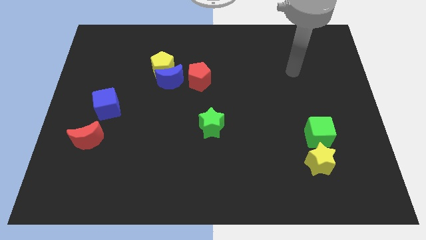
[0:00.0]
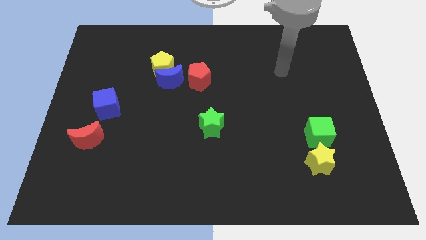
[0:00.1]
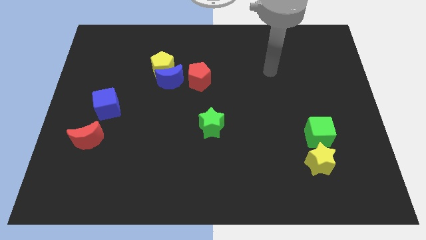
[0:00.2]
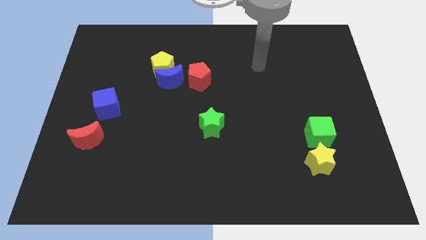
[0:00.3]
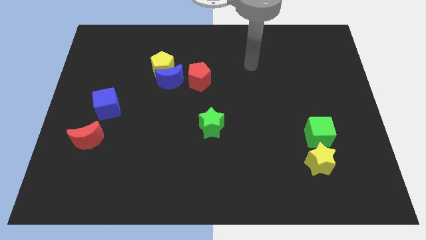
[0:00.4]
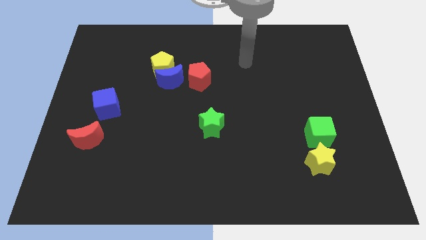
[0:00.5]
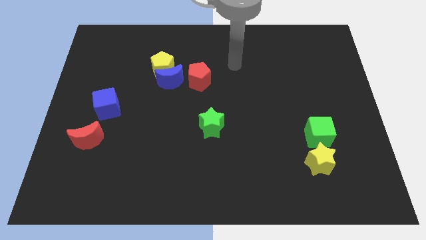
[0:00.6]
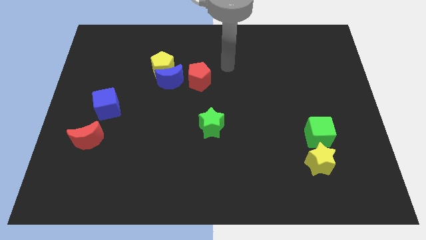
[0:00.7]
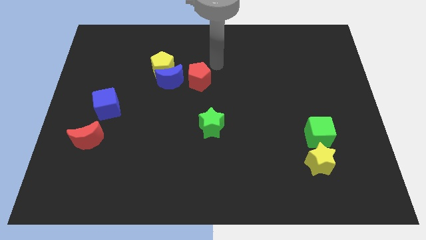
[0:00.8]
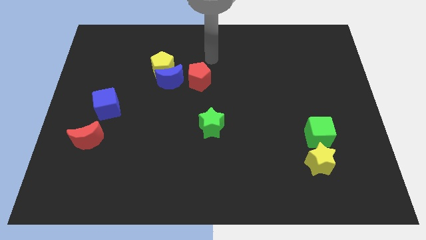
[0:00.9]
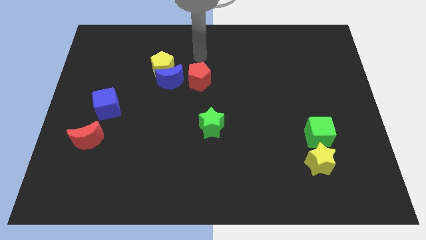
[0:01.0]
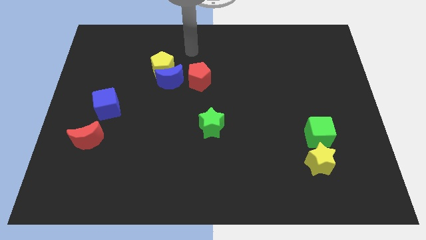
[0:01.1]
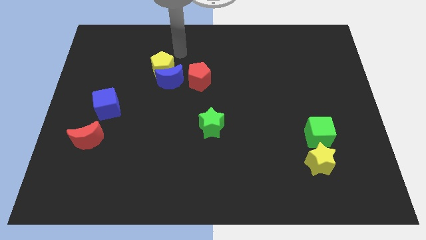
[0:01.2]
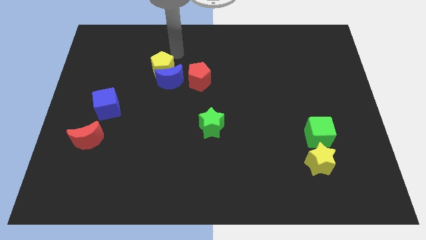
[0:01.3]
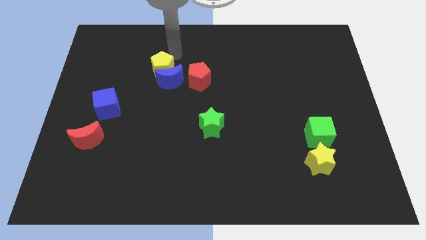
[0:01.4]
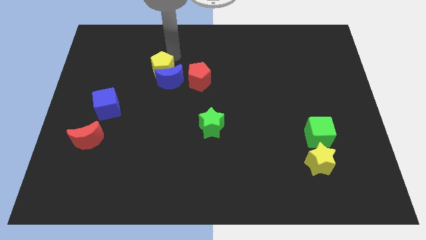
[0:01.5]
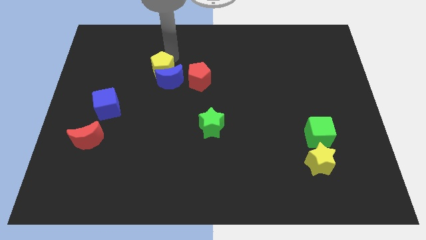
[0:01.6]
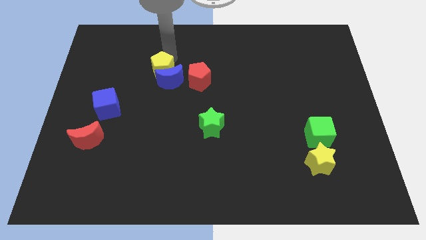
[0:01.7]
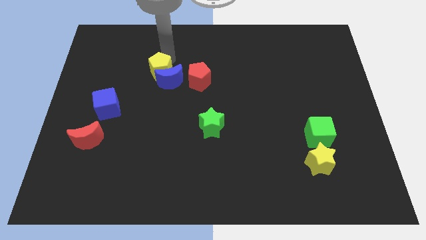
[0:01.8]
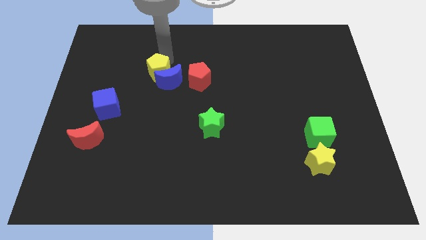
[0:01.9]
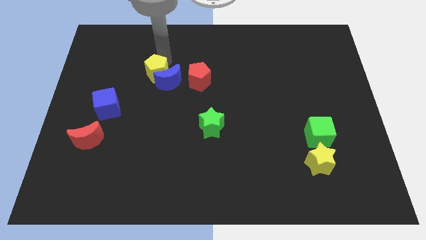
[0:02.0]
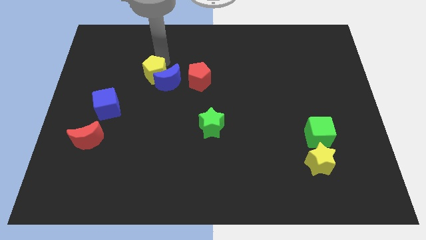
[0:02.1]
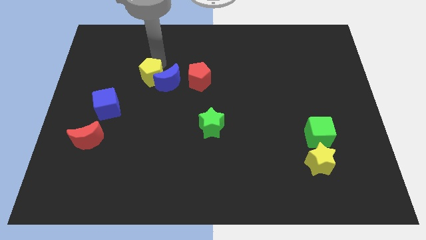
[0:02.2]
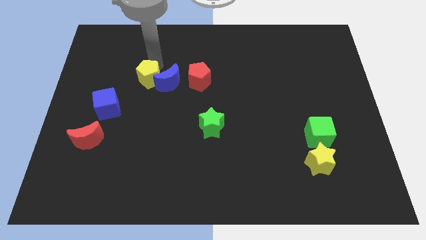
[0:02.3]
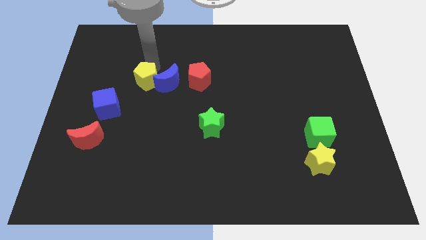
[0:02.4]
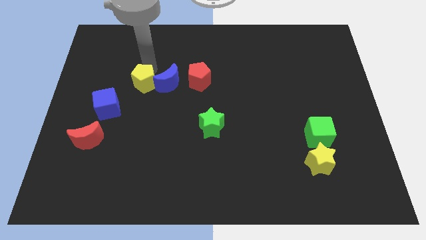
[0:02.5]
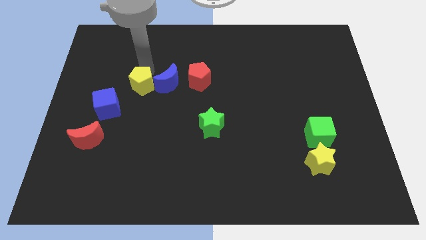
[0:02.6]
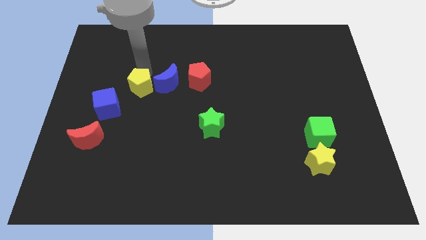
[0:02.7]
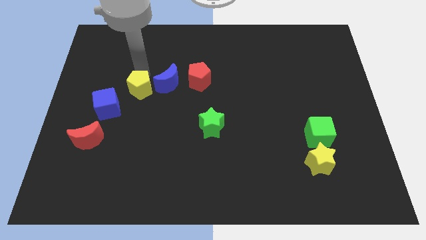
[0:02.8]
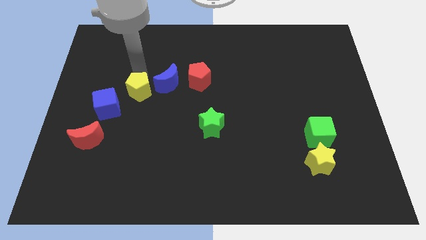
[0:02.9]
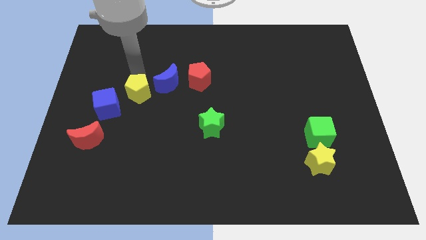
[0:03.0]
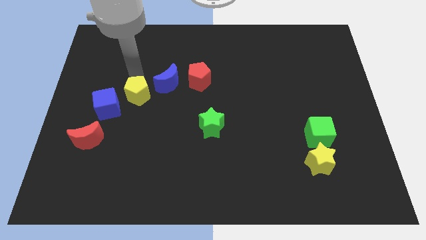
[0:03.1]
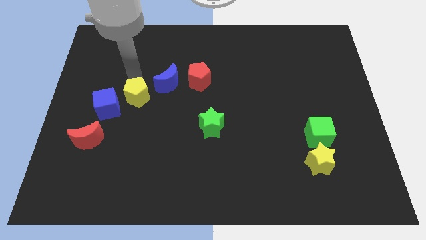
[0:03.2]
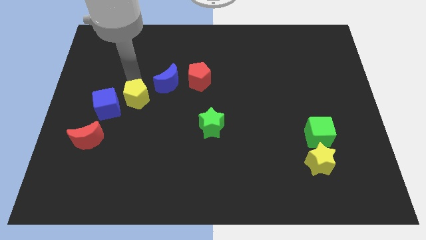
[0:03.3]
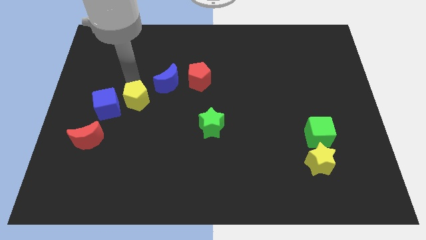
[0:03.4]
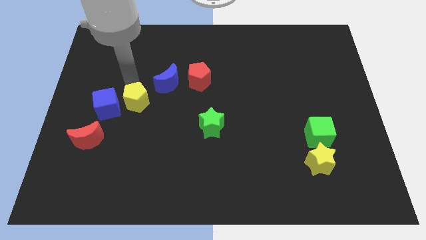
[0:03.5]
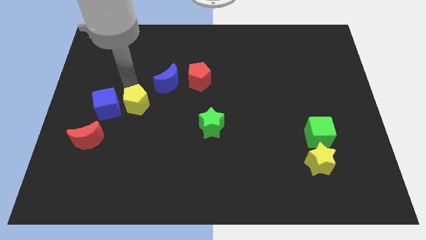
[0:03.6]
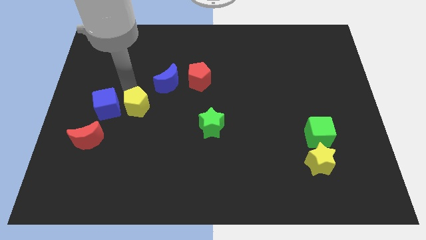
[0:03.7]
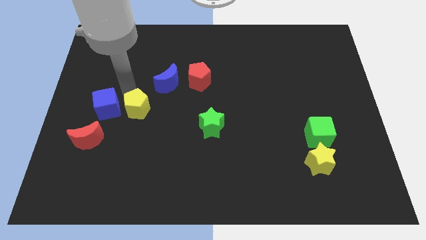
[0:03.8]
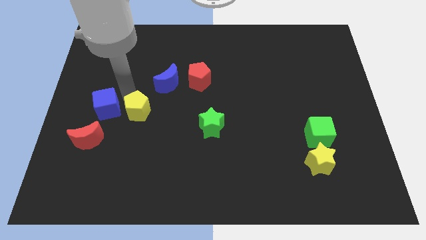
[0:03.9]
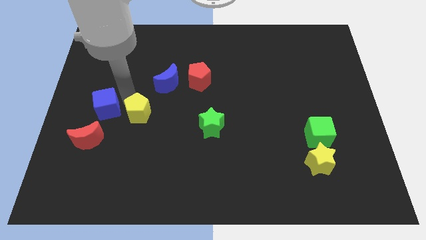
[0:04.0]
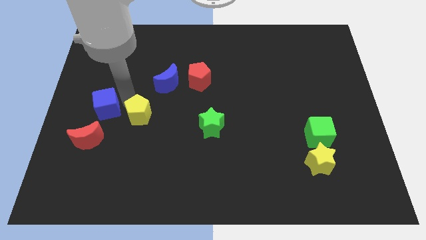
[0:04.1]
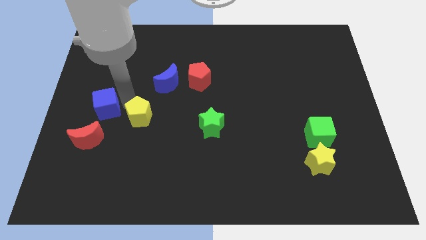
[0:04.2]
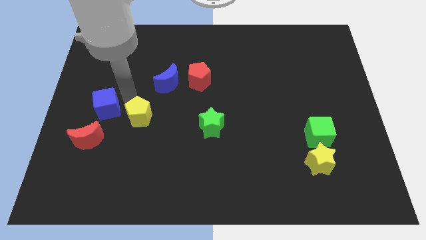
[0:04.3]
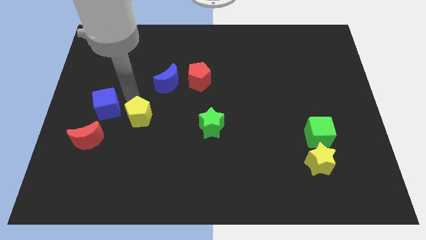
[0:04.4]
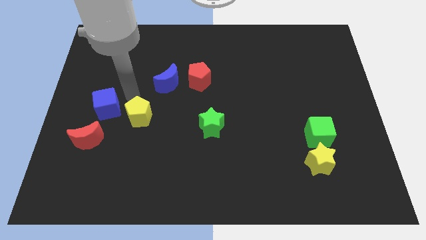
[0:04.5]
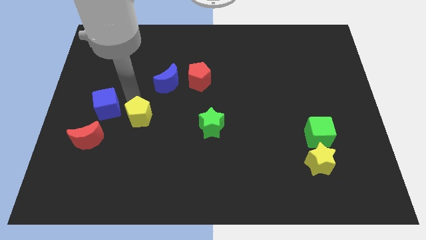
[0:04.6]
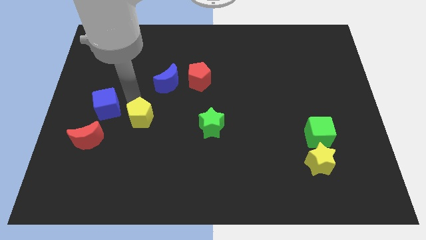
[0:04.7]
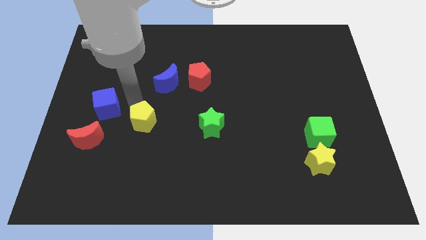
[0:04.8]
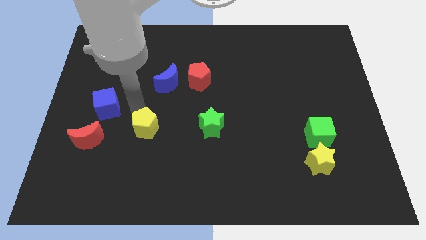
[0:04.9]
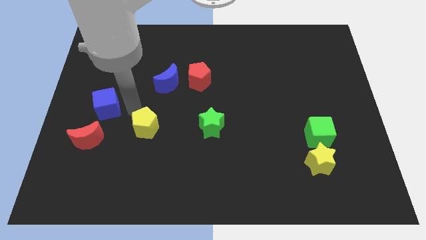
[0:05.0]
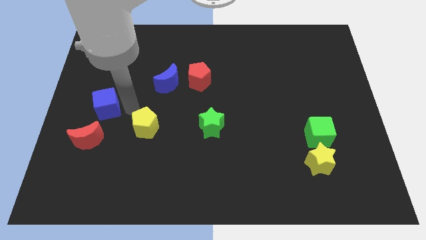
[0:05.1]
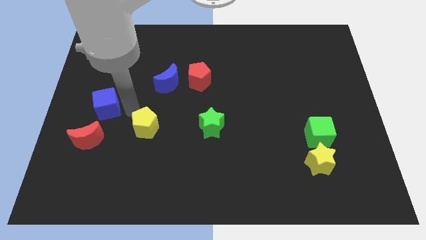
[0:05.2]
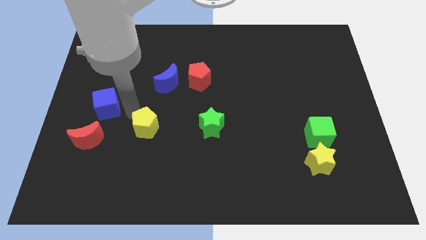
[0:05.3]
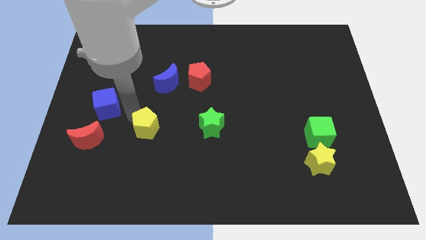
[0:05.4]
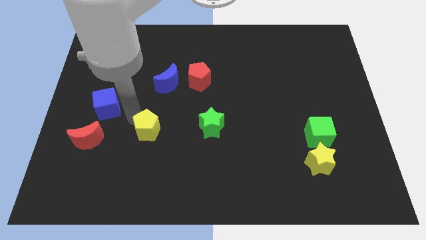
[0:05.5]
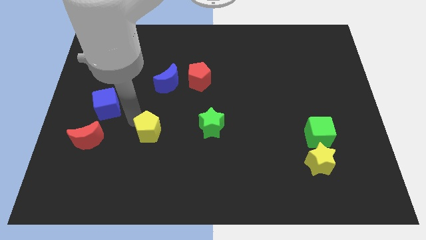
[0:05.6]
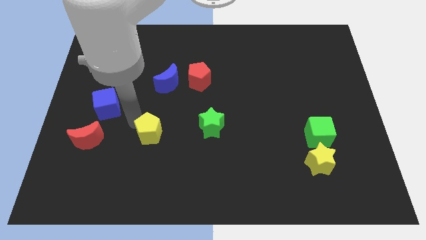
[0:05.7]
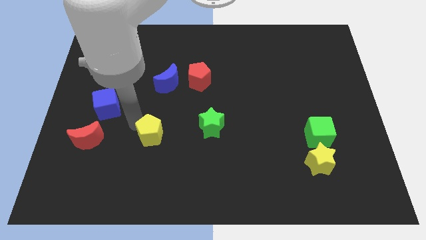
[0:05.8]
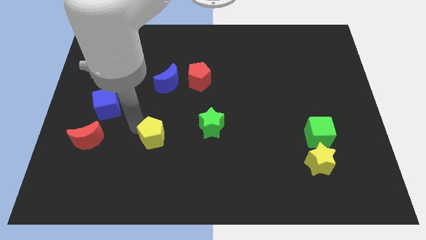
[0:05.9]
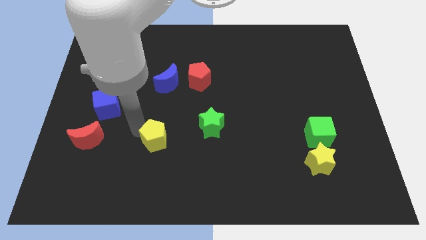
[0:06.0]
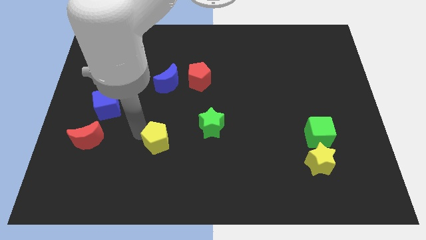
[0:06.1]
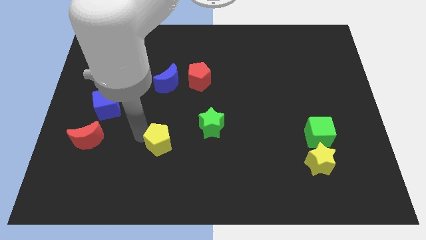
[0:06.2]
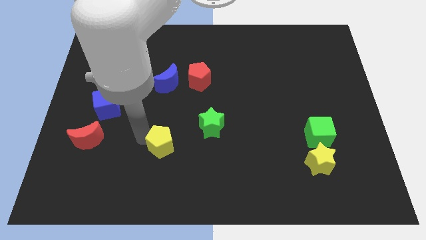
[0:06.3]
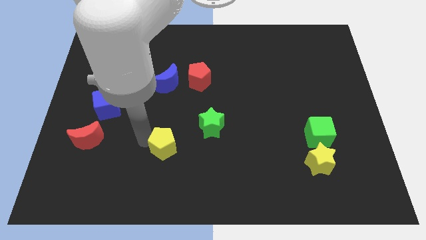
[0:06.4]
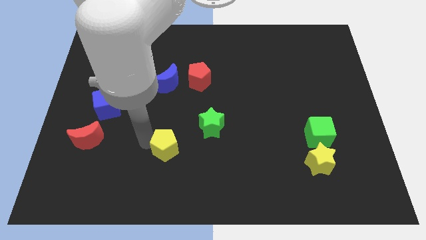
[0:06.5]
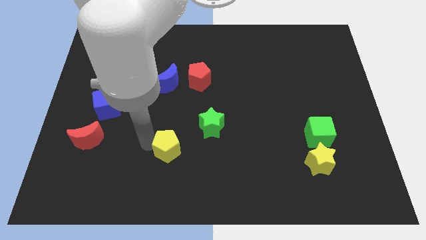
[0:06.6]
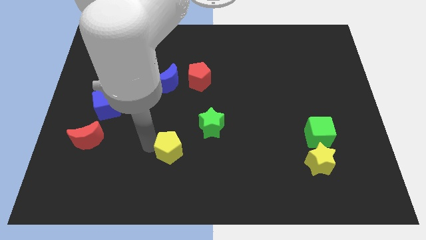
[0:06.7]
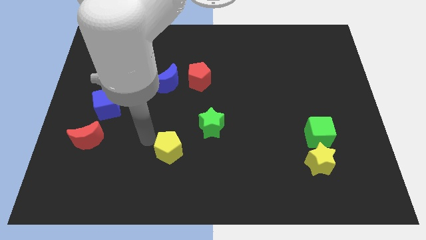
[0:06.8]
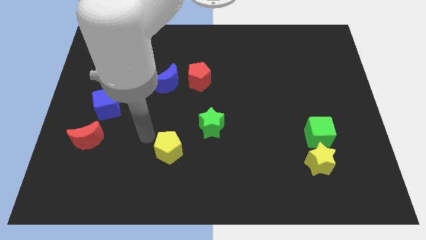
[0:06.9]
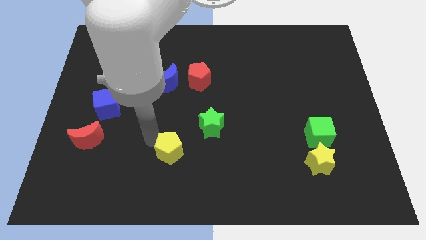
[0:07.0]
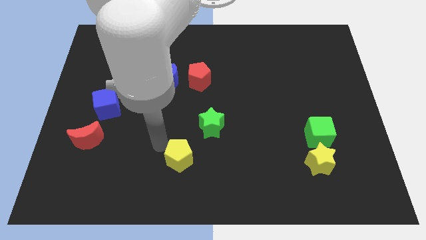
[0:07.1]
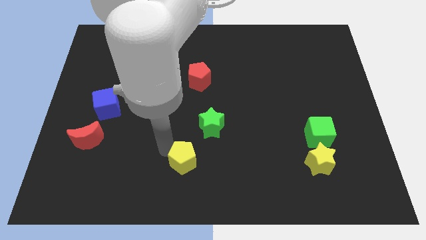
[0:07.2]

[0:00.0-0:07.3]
move the yellow pentagon to the bottom

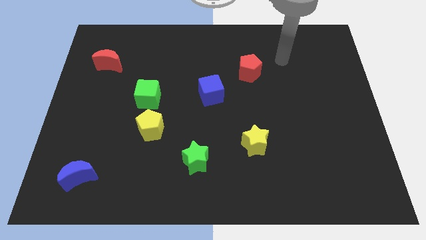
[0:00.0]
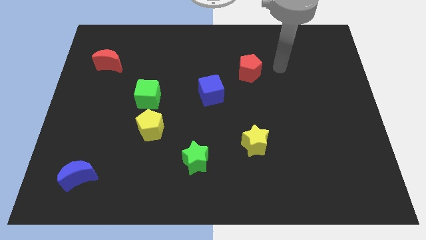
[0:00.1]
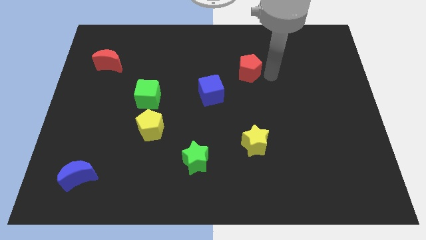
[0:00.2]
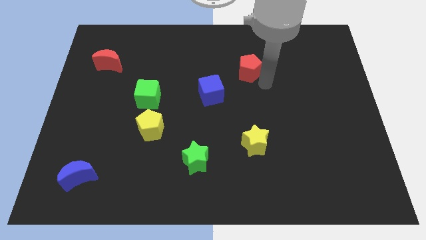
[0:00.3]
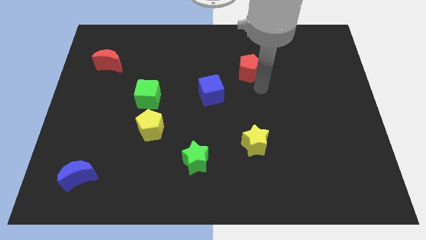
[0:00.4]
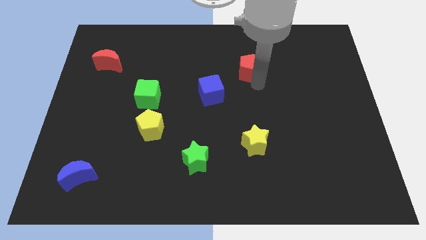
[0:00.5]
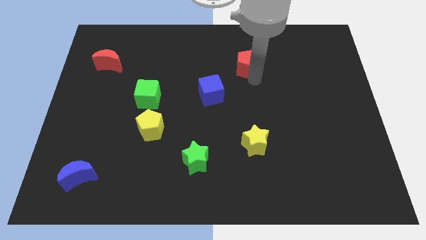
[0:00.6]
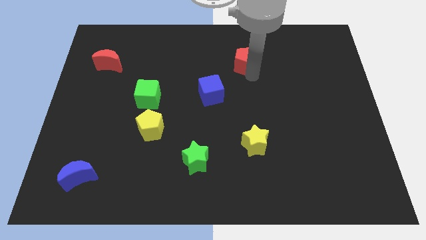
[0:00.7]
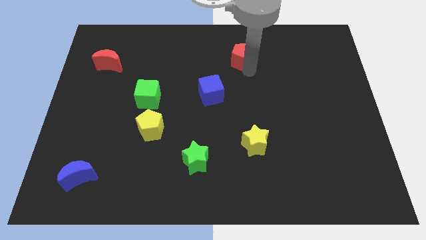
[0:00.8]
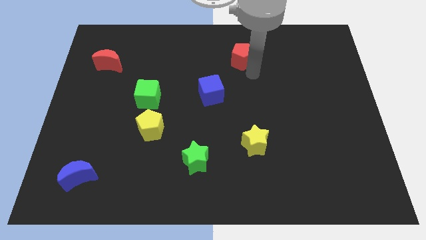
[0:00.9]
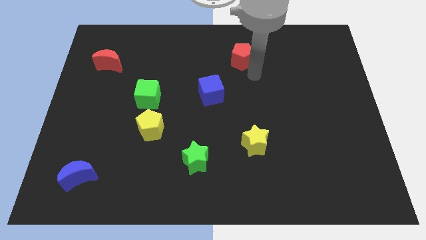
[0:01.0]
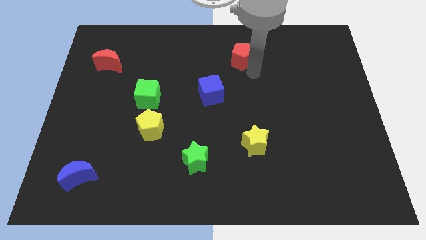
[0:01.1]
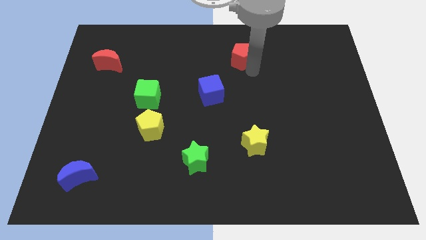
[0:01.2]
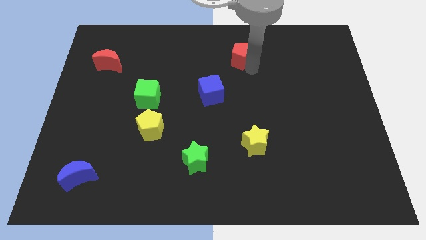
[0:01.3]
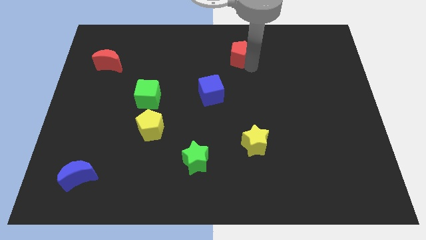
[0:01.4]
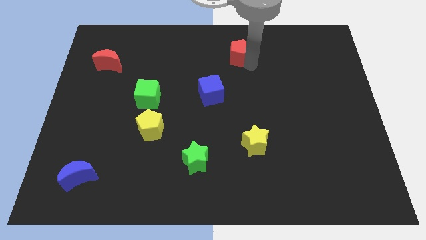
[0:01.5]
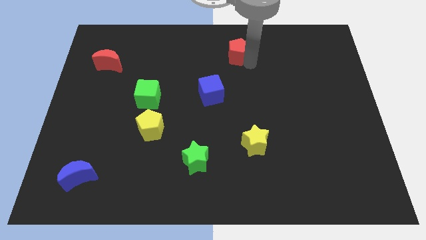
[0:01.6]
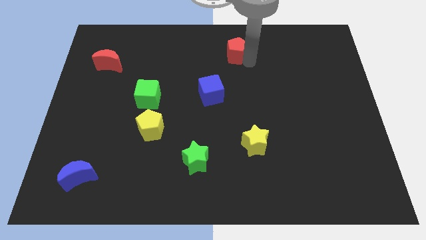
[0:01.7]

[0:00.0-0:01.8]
put the red pentagon to the top
